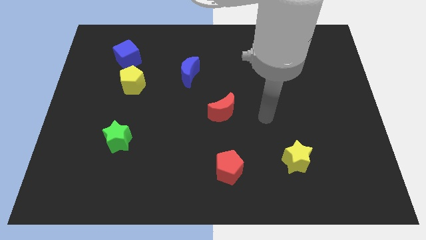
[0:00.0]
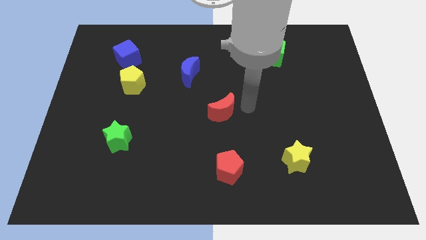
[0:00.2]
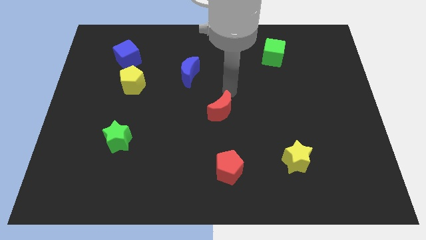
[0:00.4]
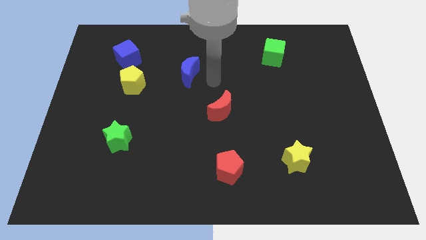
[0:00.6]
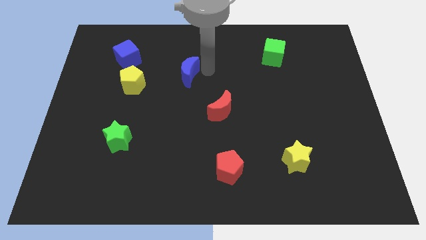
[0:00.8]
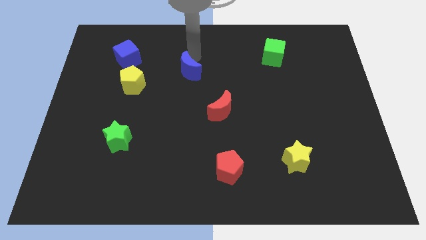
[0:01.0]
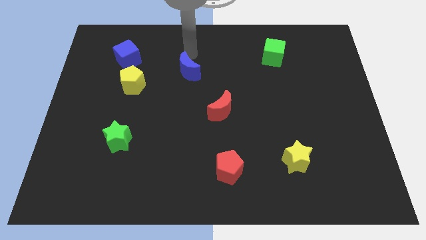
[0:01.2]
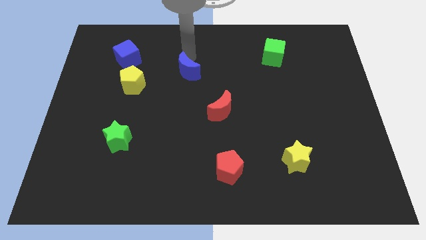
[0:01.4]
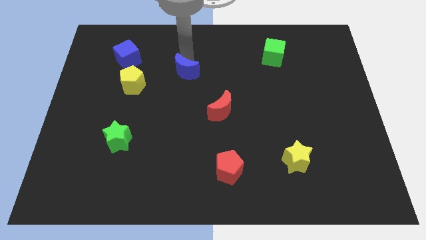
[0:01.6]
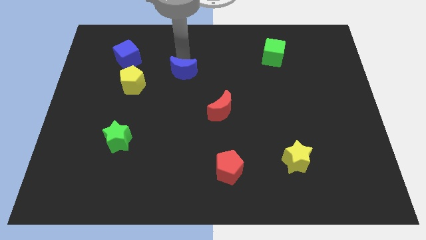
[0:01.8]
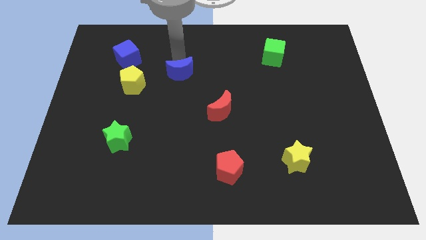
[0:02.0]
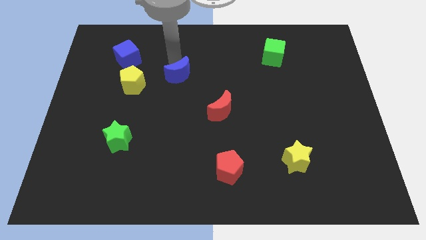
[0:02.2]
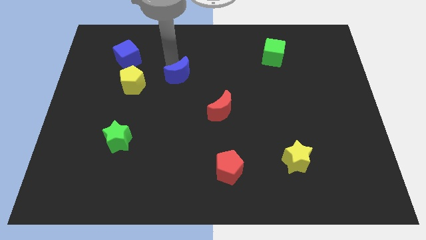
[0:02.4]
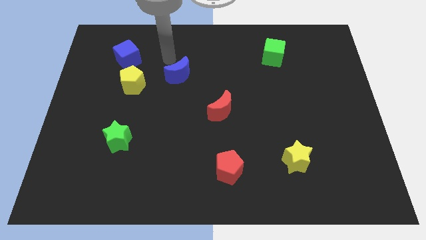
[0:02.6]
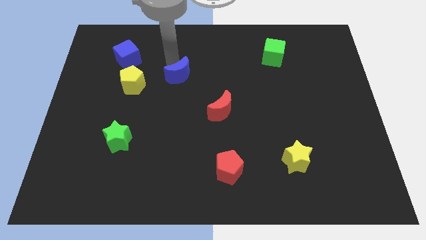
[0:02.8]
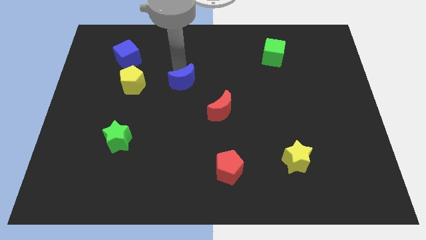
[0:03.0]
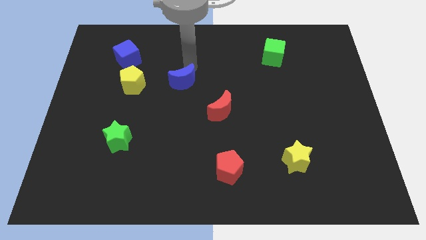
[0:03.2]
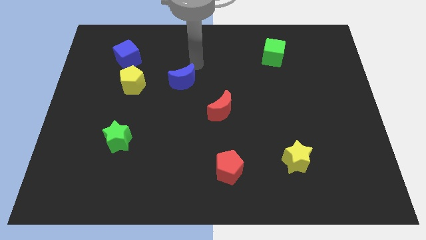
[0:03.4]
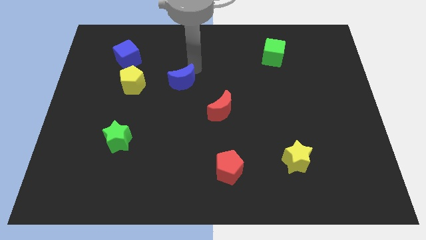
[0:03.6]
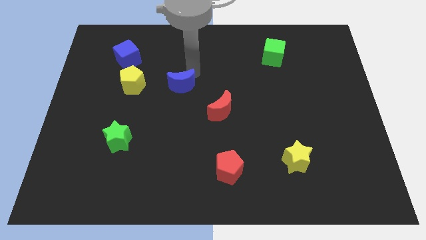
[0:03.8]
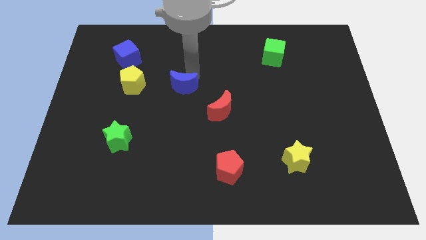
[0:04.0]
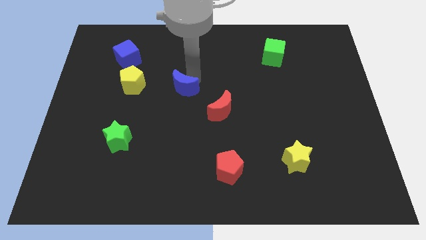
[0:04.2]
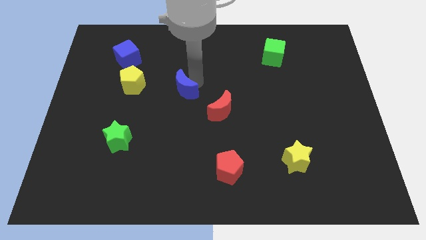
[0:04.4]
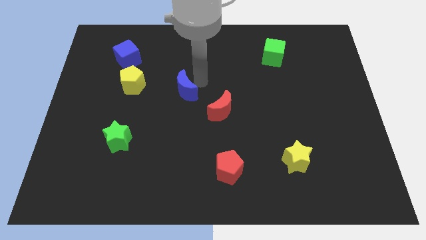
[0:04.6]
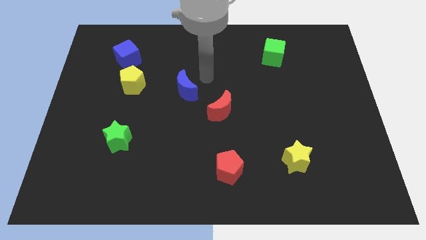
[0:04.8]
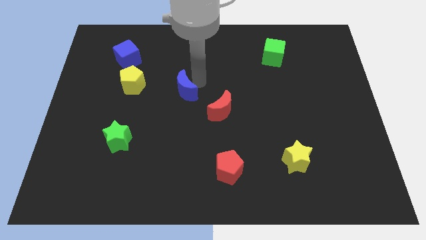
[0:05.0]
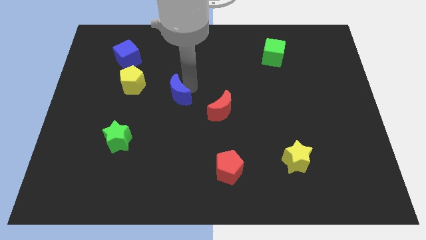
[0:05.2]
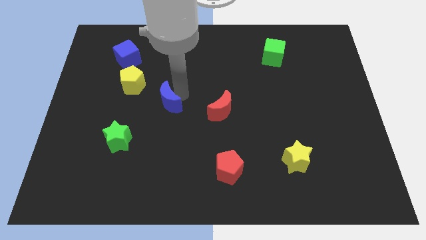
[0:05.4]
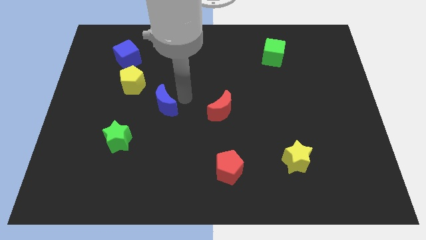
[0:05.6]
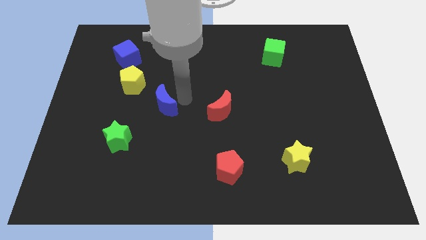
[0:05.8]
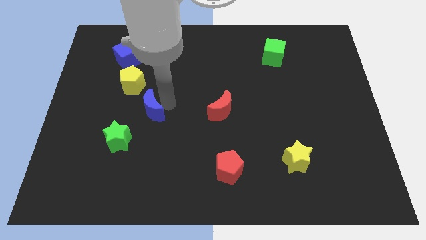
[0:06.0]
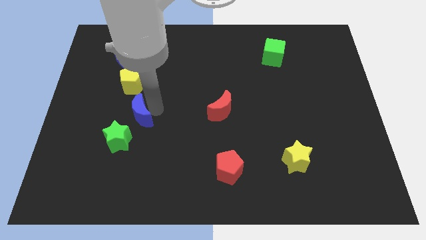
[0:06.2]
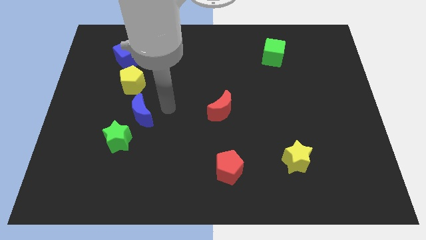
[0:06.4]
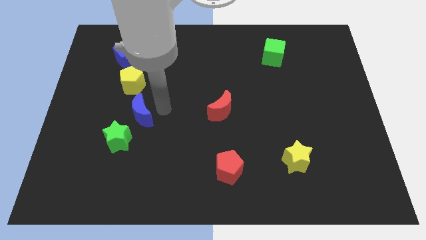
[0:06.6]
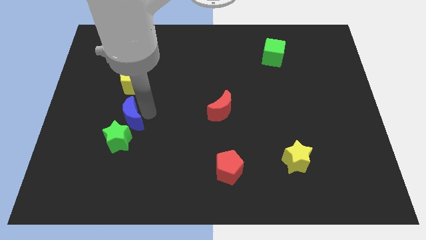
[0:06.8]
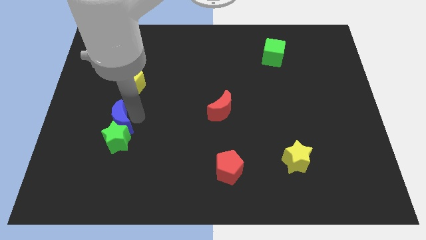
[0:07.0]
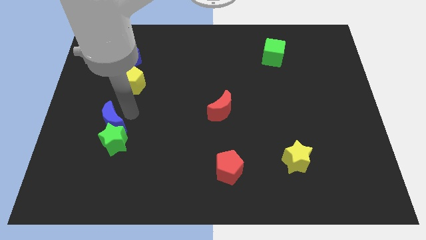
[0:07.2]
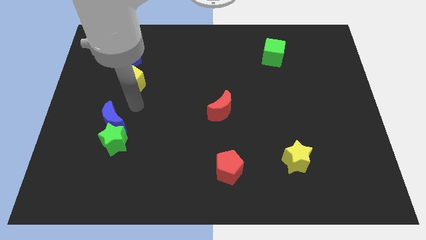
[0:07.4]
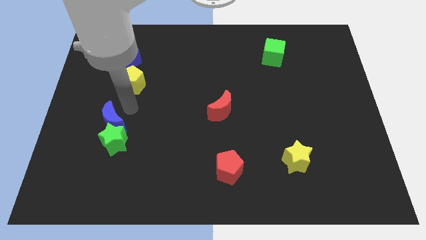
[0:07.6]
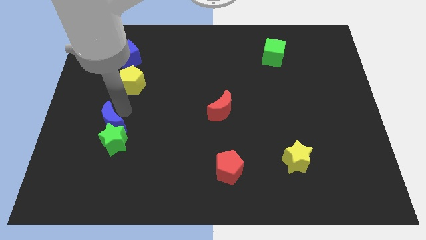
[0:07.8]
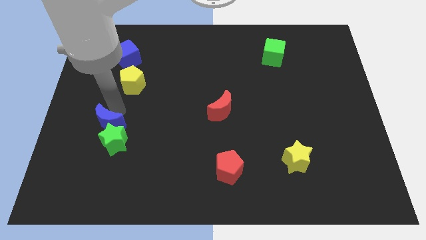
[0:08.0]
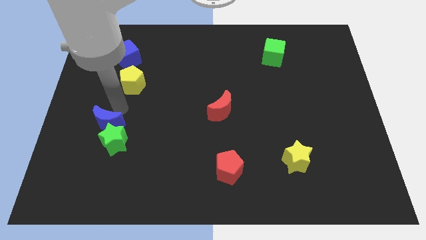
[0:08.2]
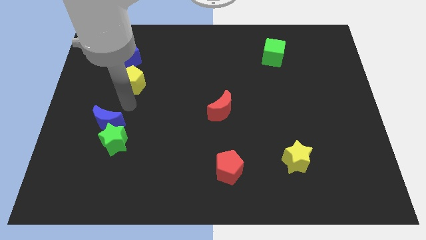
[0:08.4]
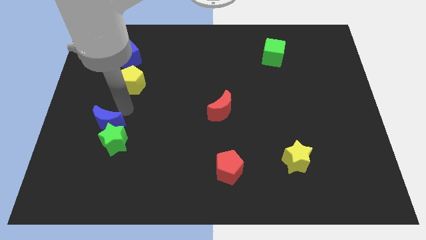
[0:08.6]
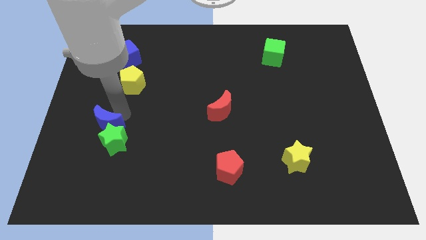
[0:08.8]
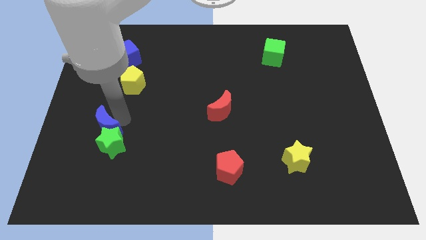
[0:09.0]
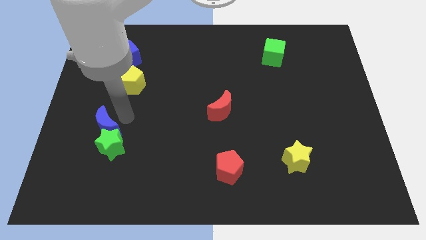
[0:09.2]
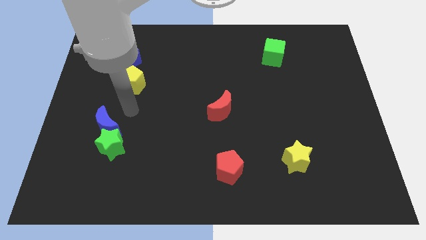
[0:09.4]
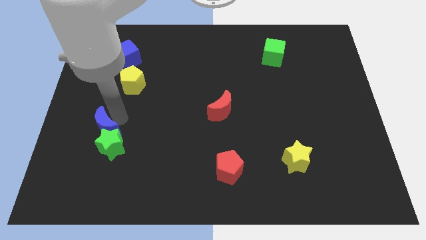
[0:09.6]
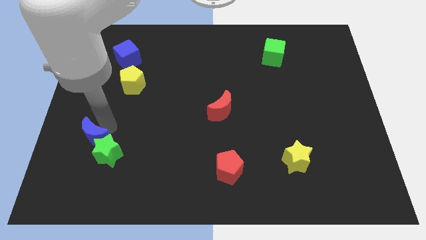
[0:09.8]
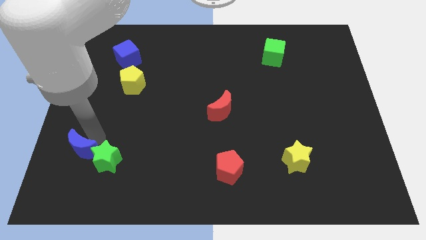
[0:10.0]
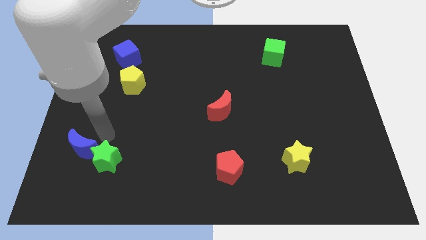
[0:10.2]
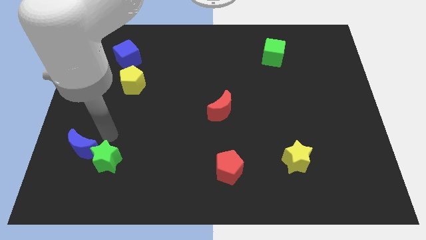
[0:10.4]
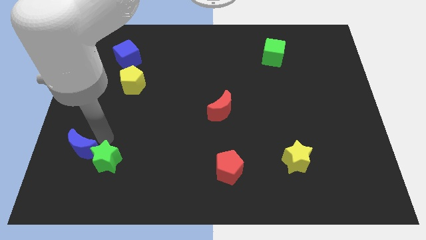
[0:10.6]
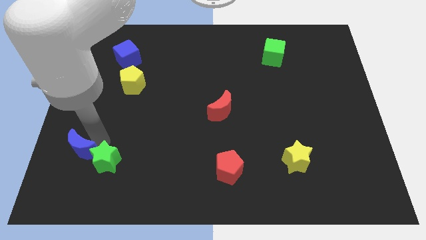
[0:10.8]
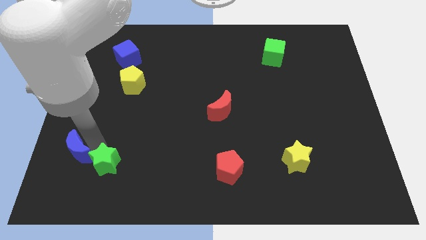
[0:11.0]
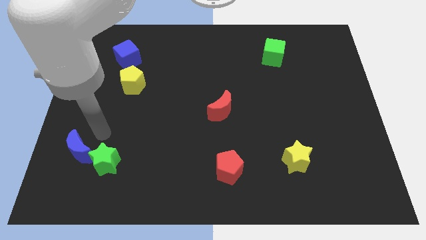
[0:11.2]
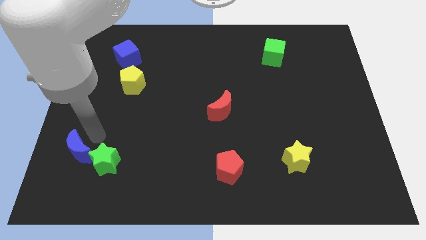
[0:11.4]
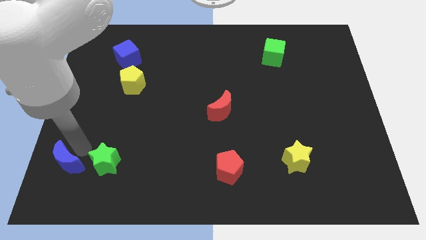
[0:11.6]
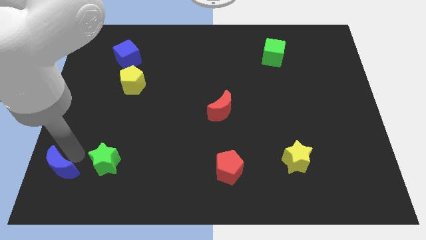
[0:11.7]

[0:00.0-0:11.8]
push the blue moon to the lower left corner
